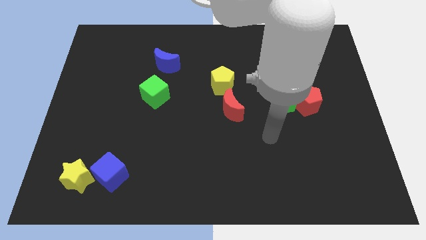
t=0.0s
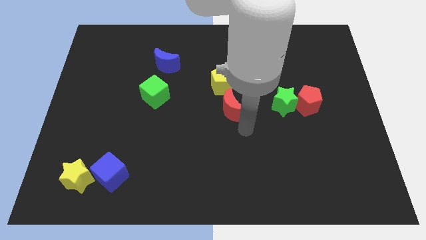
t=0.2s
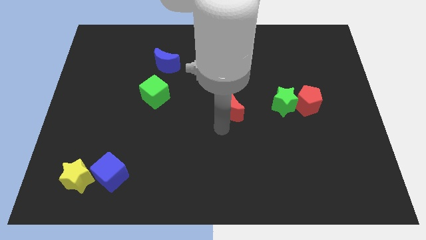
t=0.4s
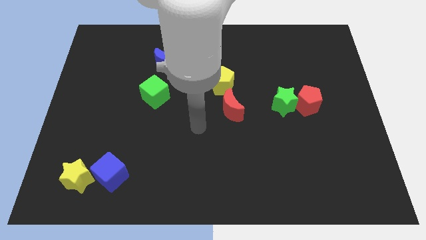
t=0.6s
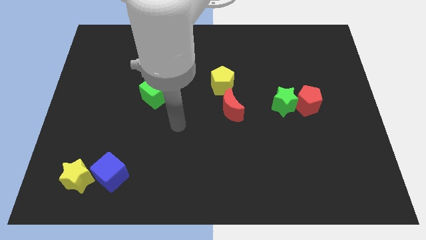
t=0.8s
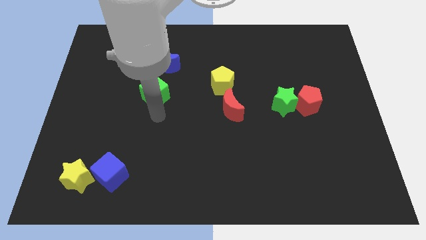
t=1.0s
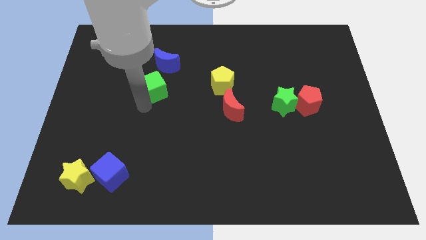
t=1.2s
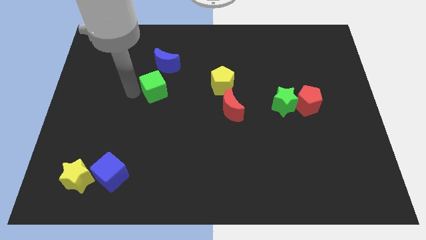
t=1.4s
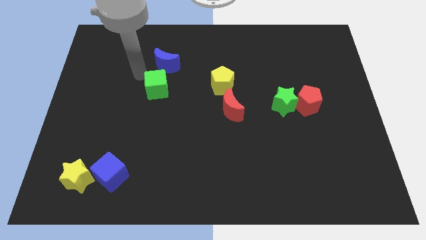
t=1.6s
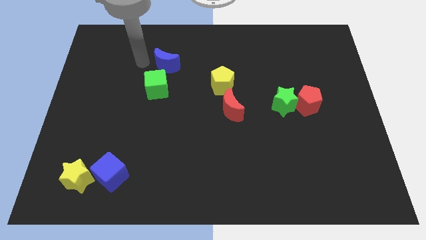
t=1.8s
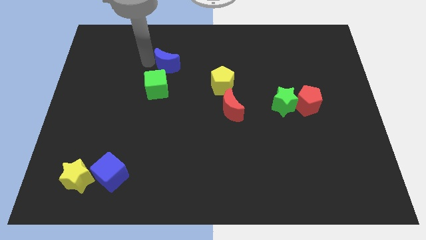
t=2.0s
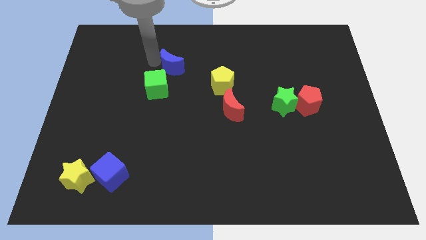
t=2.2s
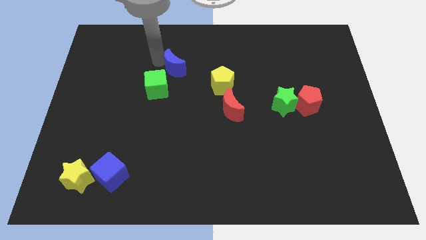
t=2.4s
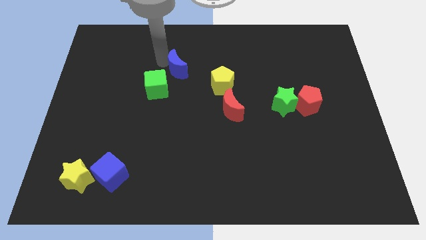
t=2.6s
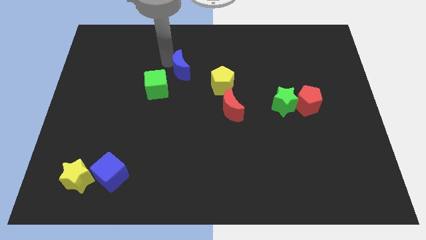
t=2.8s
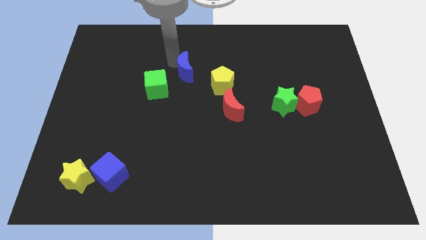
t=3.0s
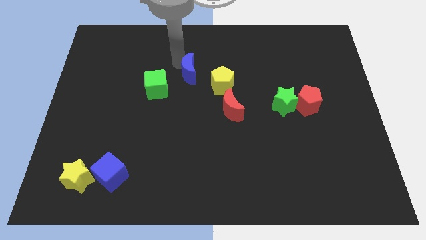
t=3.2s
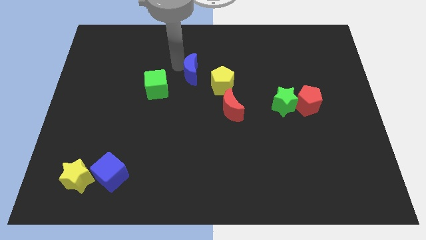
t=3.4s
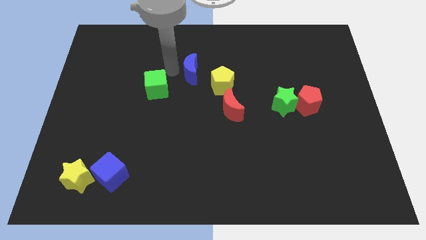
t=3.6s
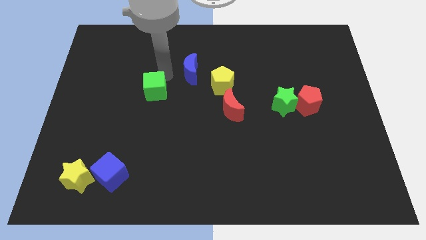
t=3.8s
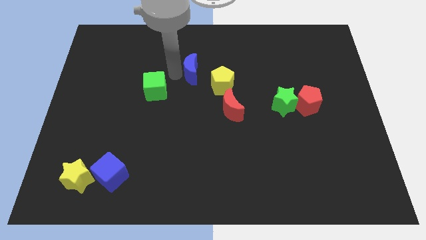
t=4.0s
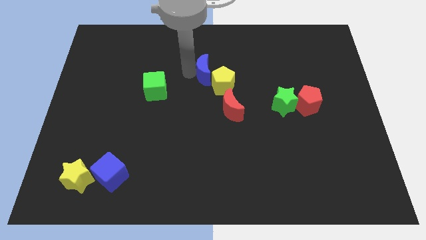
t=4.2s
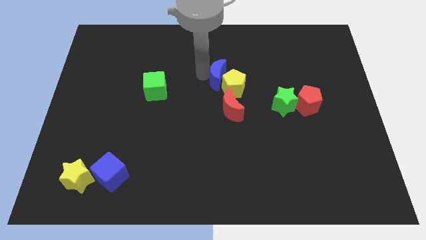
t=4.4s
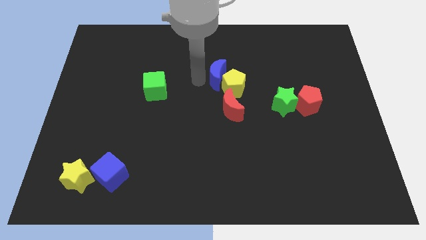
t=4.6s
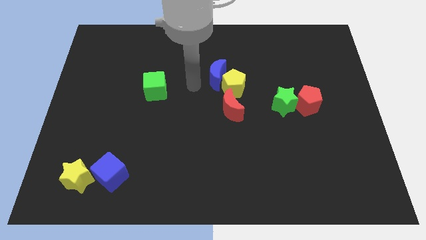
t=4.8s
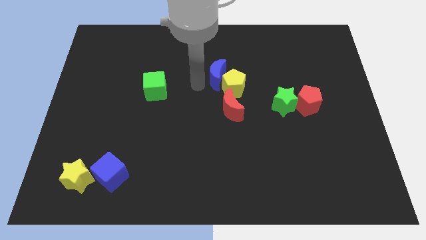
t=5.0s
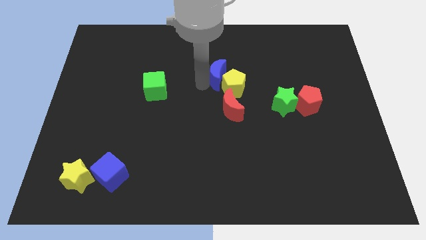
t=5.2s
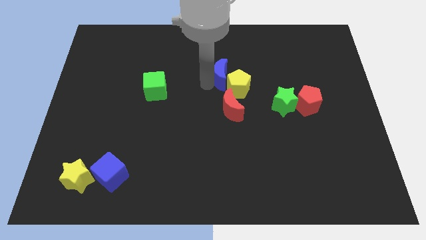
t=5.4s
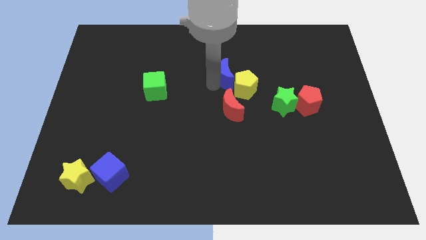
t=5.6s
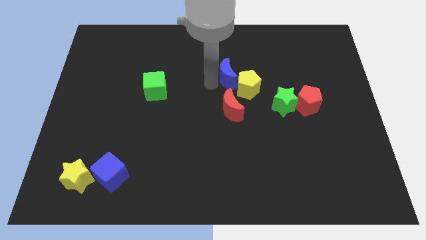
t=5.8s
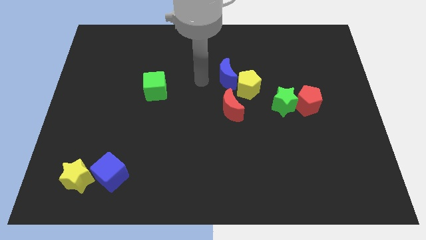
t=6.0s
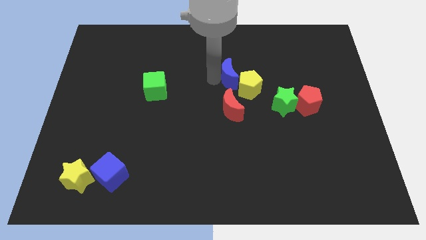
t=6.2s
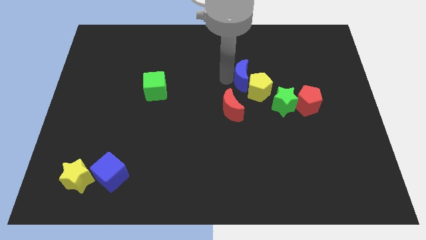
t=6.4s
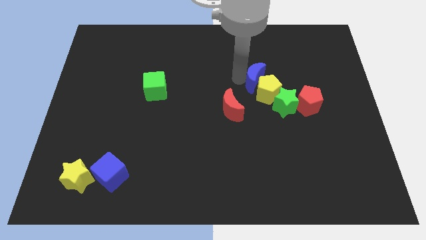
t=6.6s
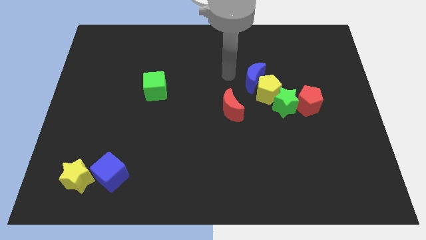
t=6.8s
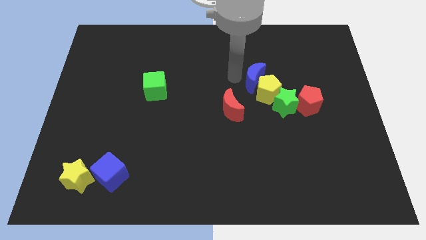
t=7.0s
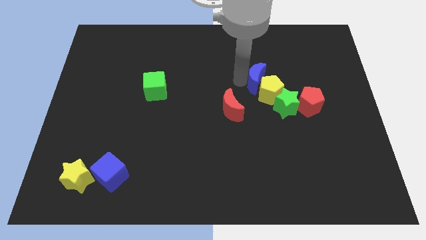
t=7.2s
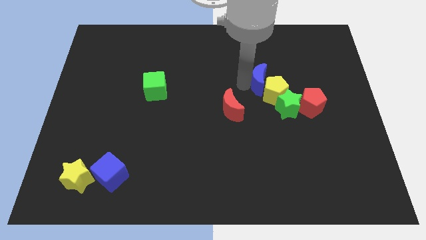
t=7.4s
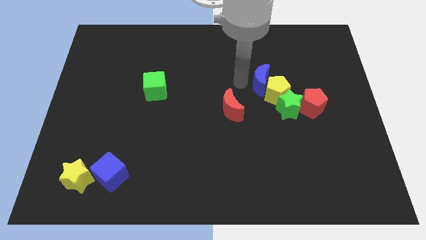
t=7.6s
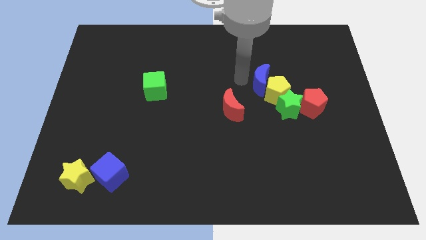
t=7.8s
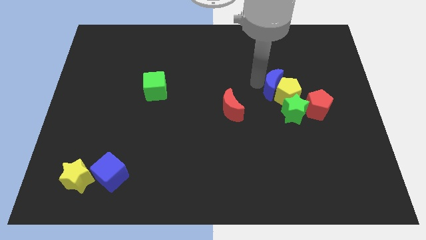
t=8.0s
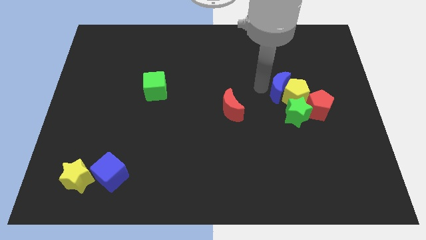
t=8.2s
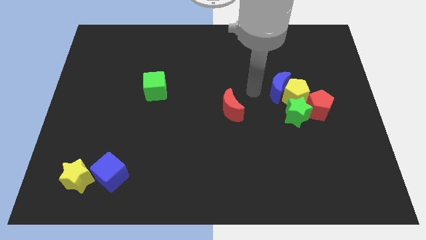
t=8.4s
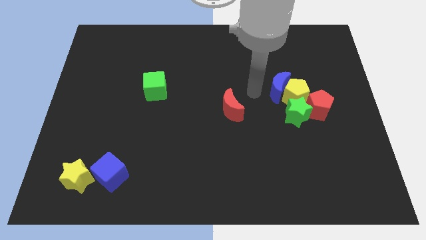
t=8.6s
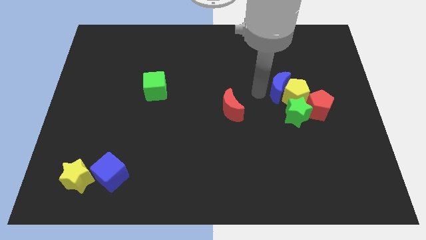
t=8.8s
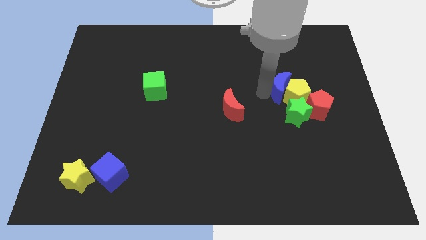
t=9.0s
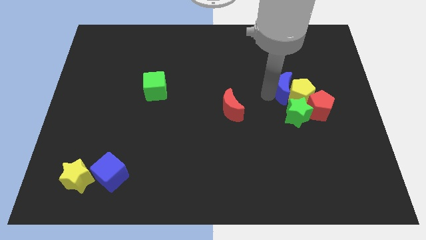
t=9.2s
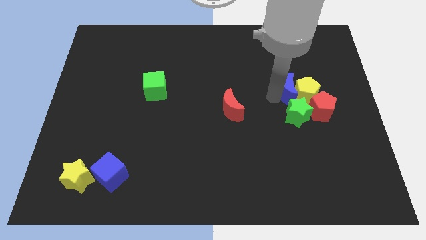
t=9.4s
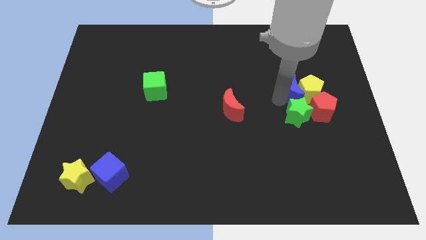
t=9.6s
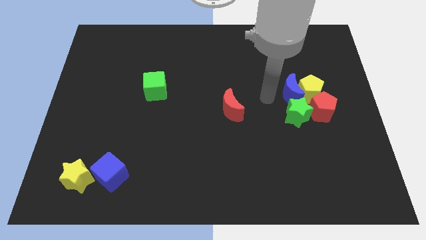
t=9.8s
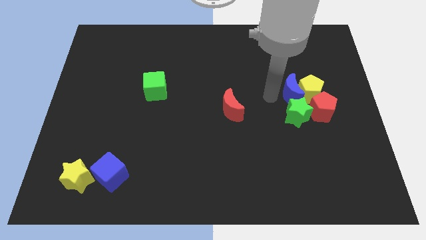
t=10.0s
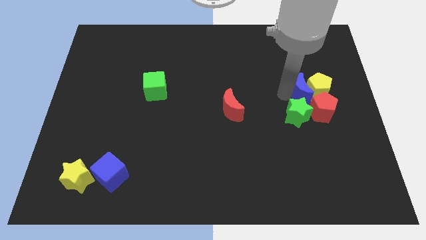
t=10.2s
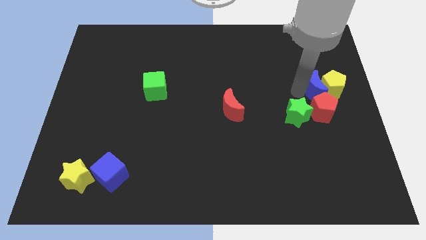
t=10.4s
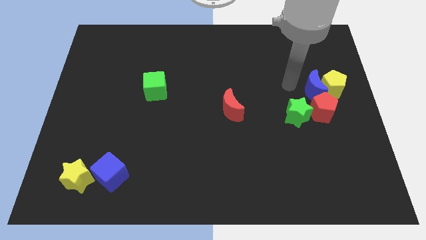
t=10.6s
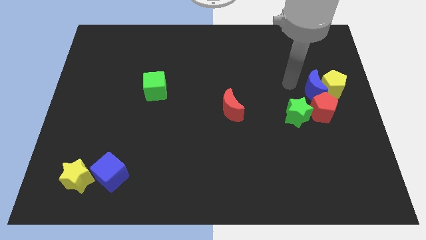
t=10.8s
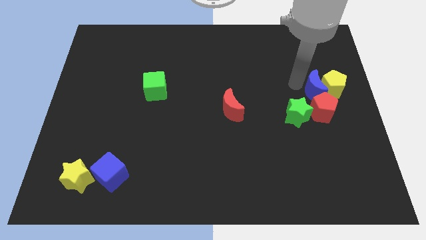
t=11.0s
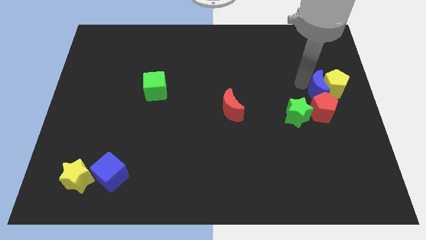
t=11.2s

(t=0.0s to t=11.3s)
put the blue moon to the center right

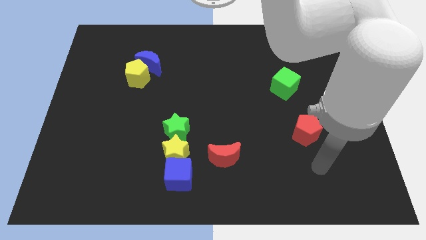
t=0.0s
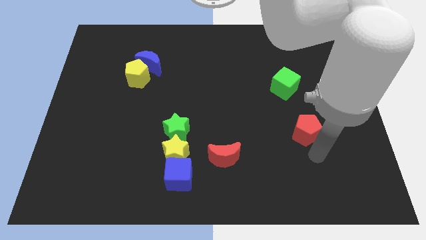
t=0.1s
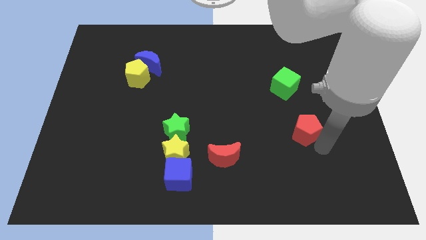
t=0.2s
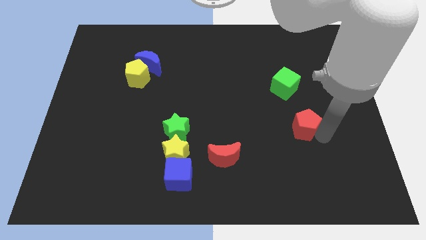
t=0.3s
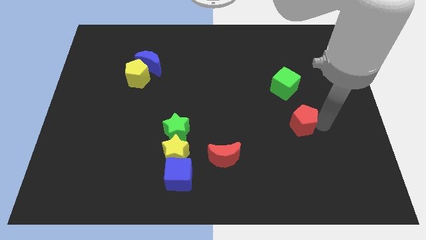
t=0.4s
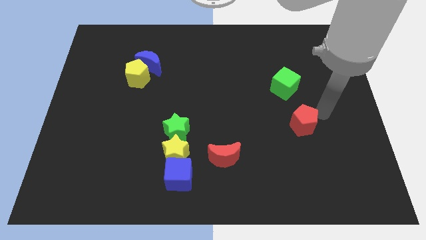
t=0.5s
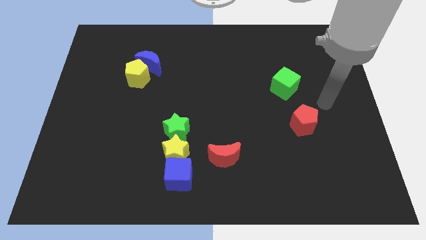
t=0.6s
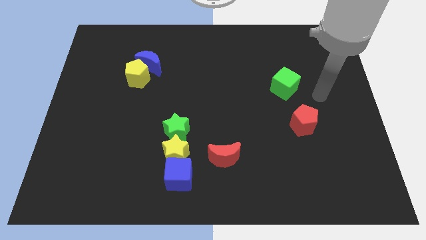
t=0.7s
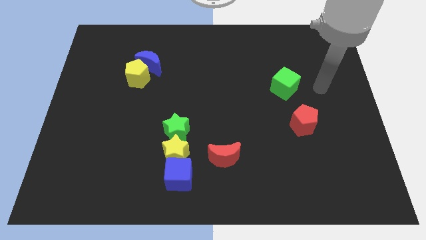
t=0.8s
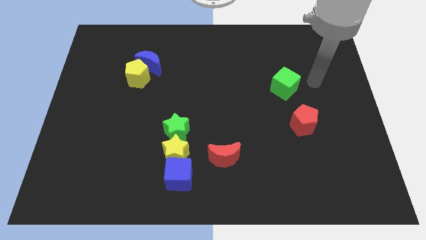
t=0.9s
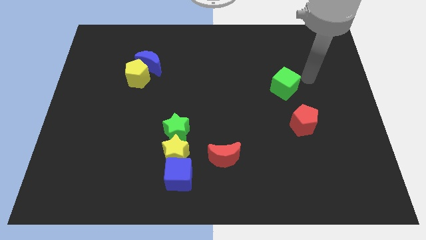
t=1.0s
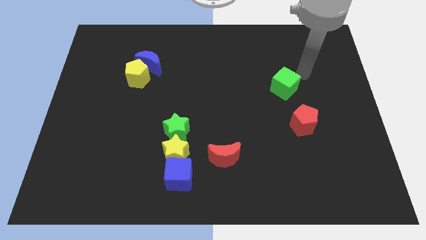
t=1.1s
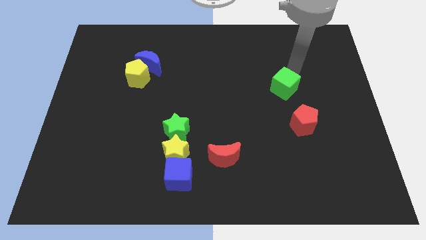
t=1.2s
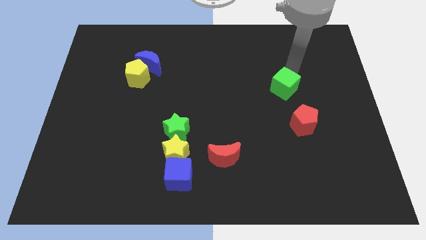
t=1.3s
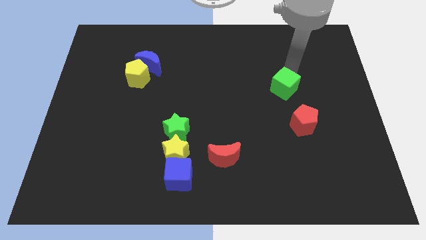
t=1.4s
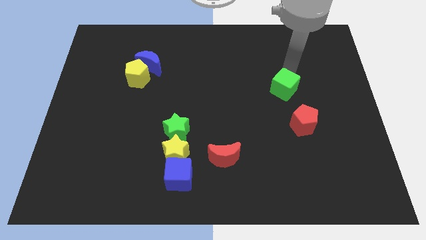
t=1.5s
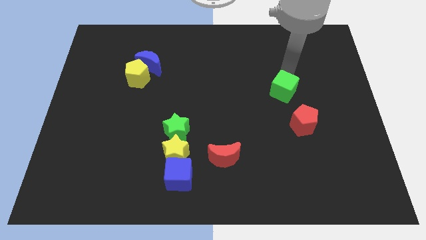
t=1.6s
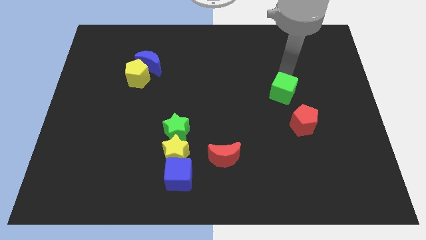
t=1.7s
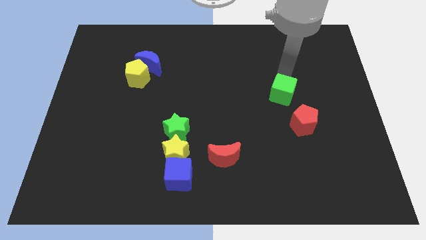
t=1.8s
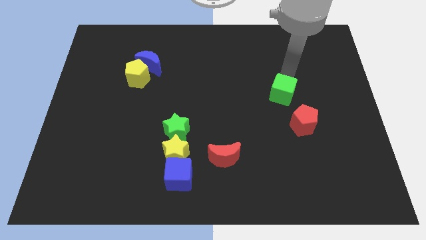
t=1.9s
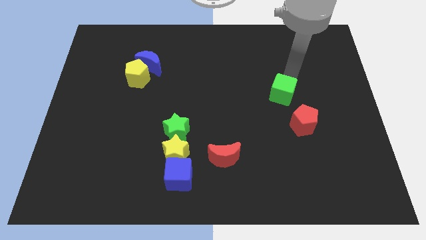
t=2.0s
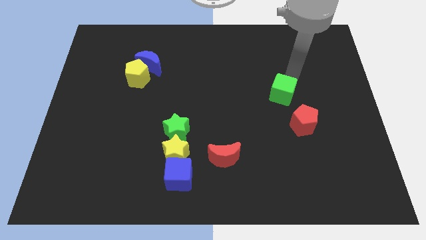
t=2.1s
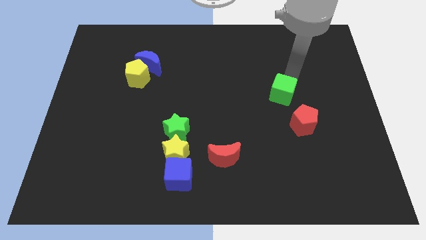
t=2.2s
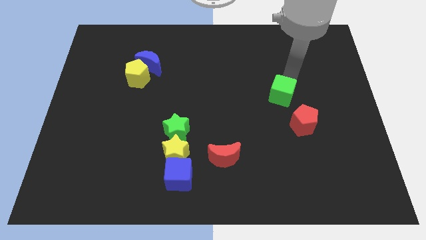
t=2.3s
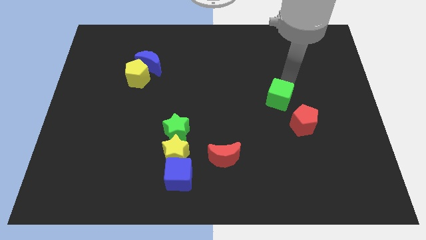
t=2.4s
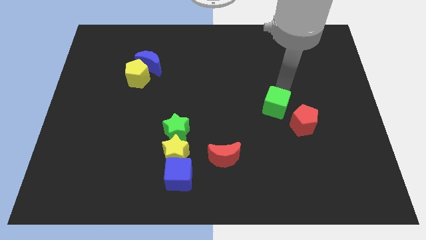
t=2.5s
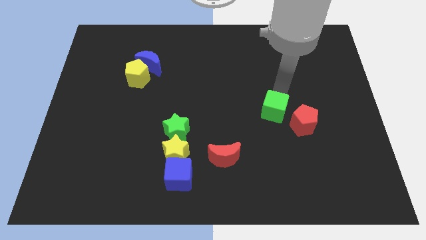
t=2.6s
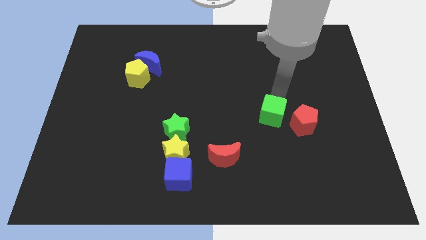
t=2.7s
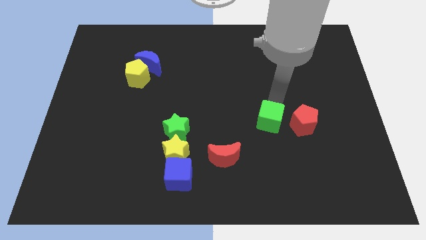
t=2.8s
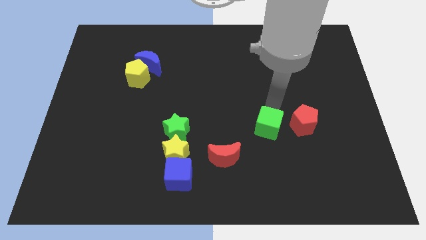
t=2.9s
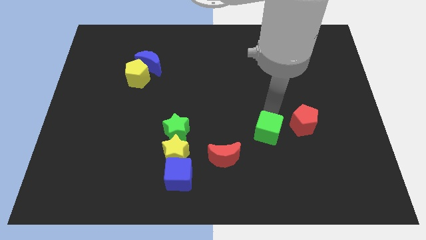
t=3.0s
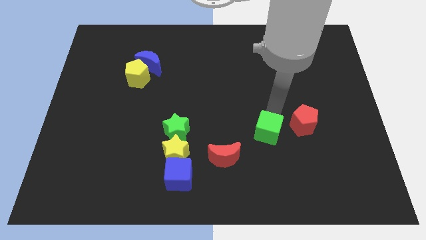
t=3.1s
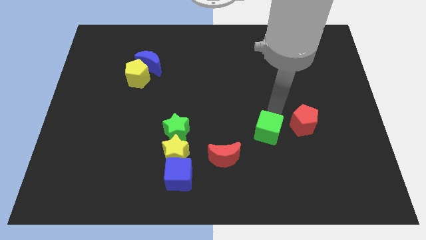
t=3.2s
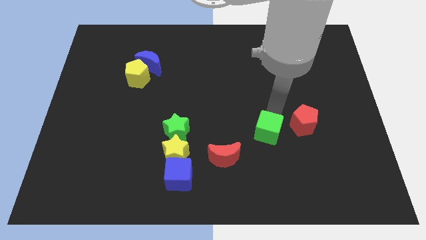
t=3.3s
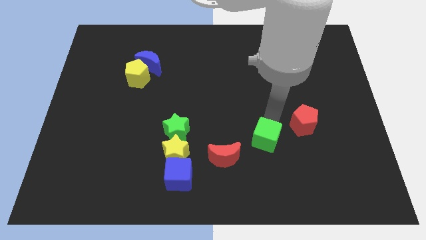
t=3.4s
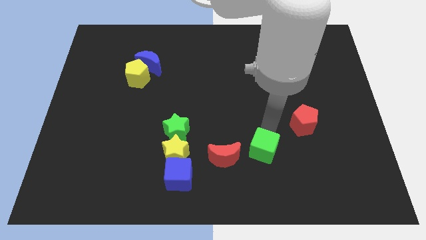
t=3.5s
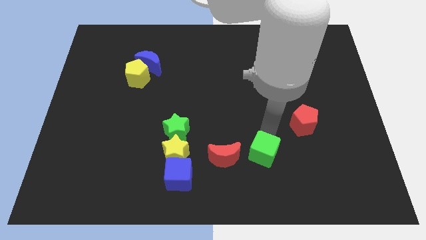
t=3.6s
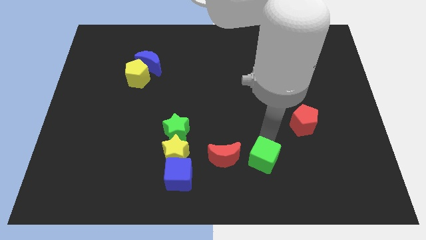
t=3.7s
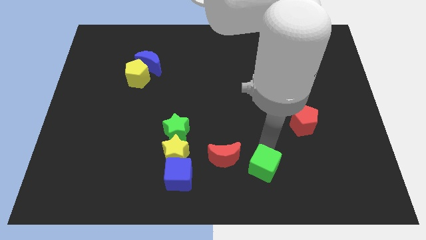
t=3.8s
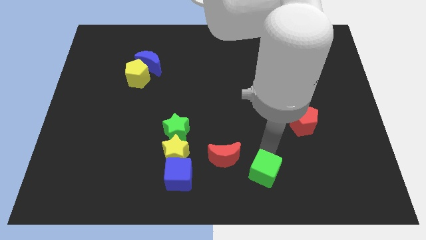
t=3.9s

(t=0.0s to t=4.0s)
push the green cube to the bottom
